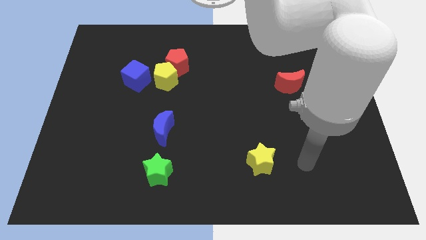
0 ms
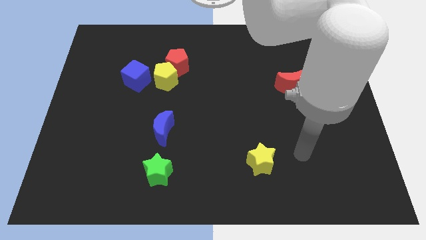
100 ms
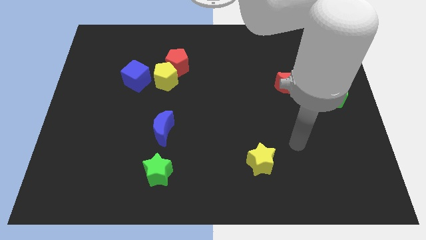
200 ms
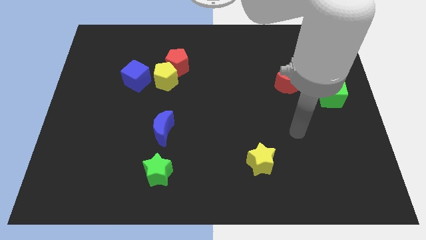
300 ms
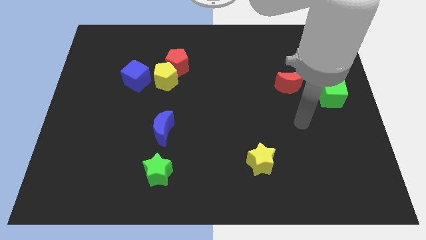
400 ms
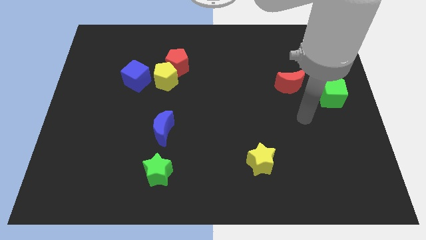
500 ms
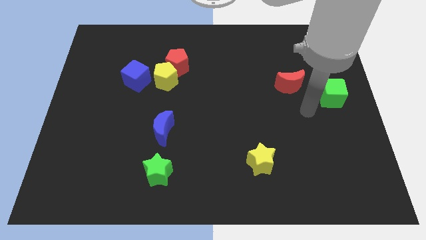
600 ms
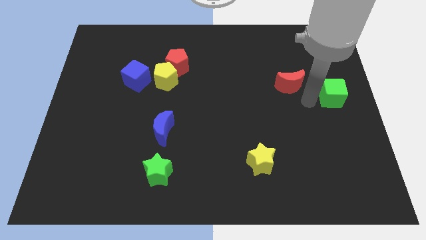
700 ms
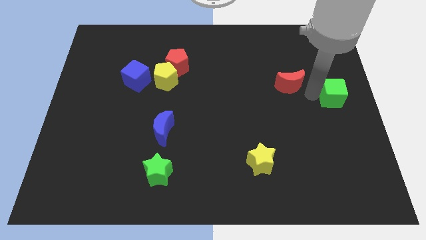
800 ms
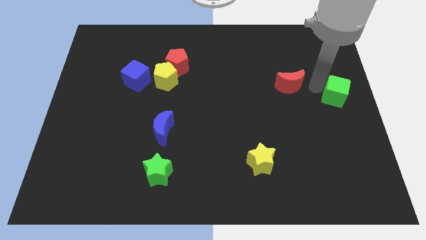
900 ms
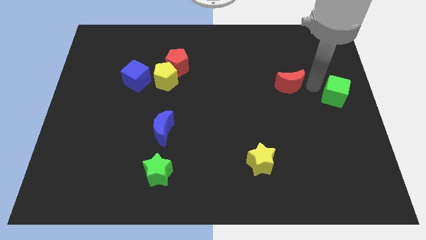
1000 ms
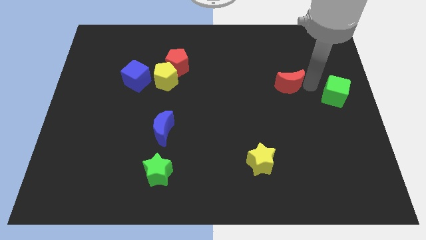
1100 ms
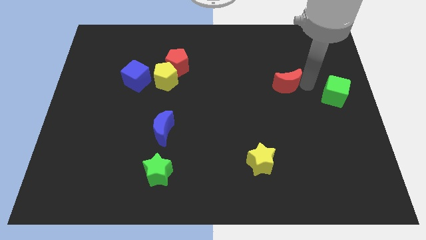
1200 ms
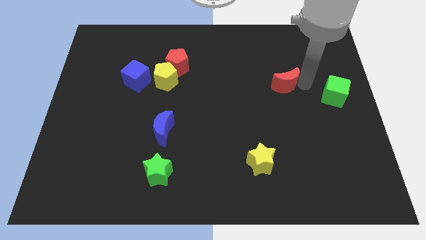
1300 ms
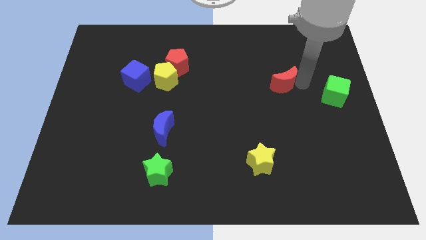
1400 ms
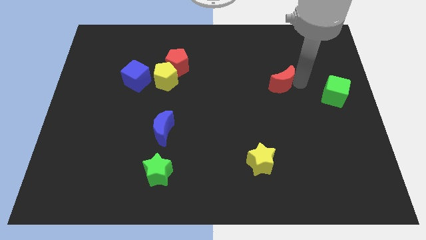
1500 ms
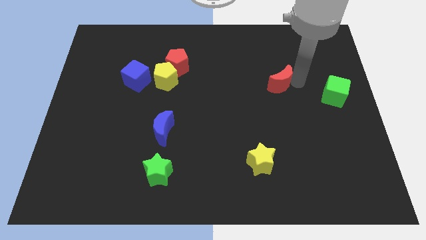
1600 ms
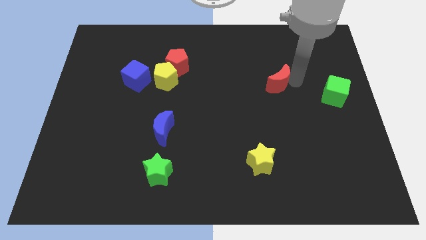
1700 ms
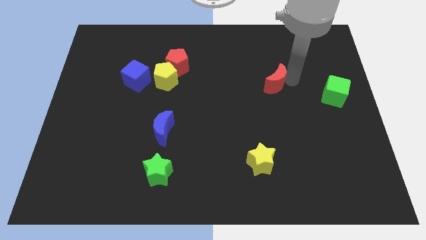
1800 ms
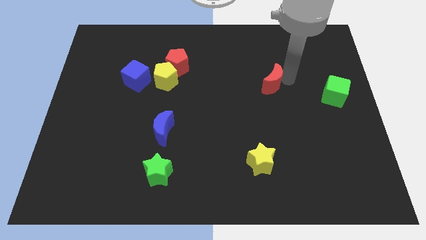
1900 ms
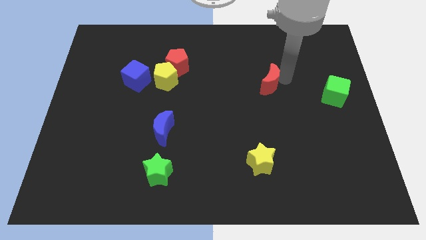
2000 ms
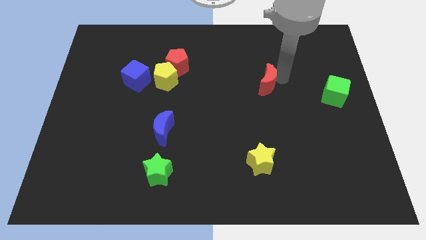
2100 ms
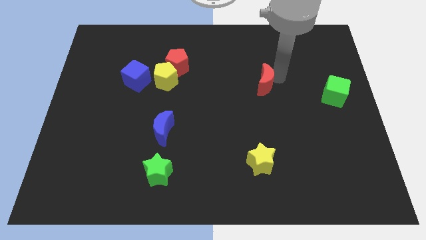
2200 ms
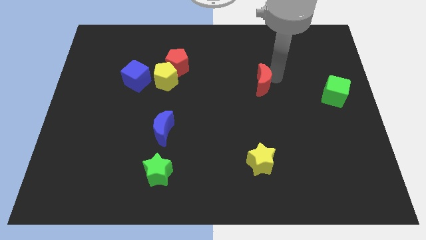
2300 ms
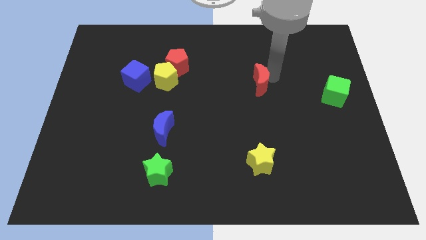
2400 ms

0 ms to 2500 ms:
slightly slide the red moon left

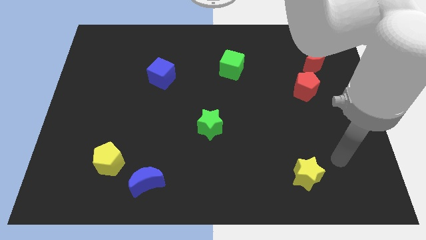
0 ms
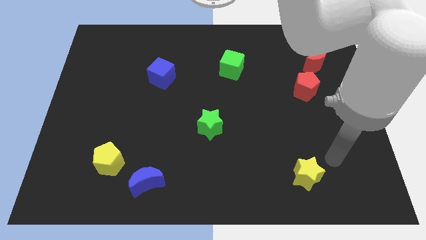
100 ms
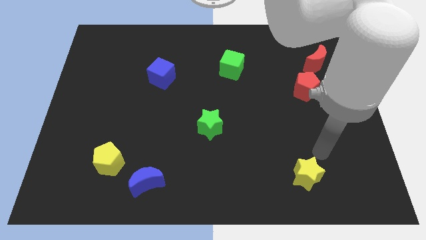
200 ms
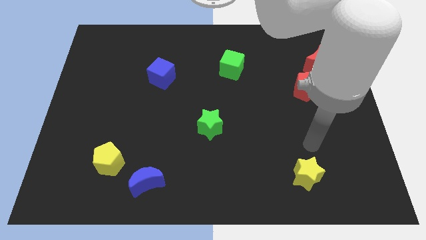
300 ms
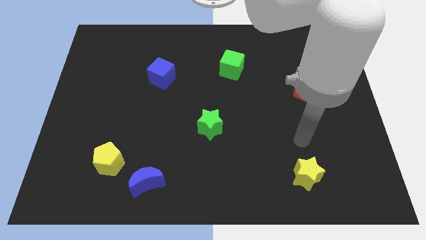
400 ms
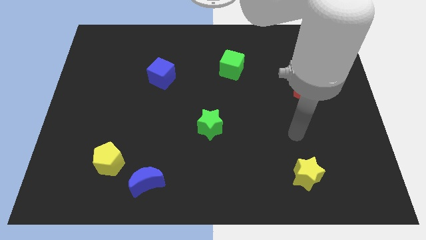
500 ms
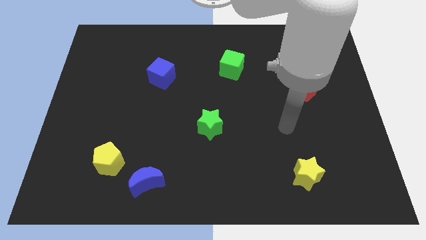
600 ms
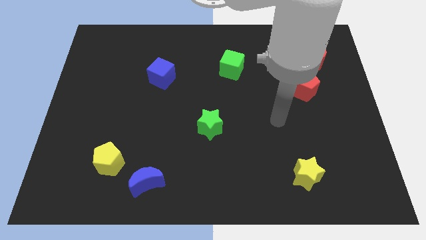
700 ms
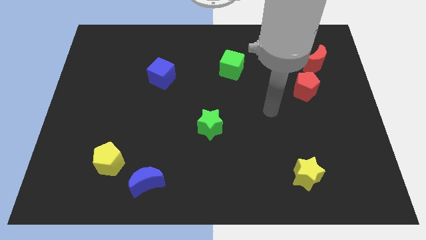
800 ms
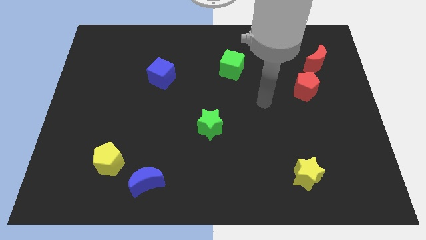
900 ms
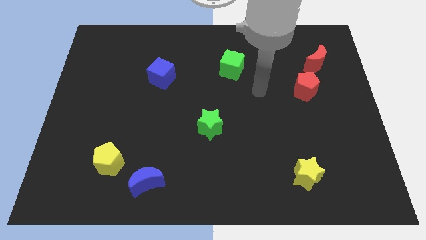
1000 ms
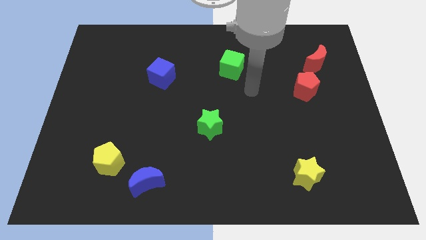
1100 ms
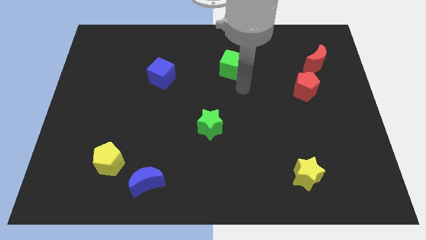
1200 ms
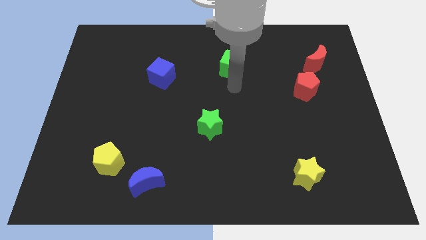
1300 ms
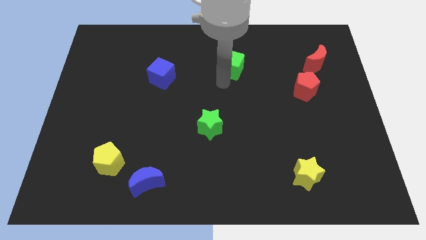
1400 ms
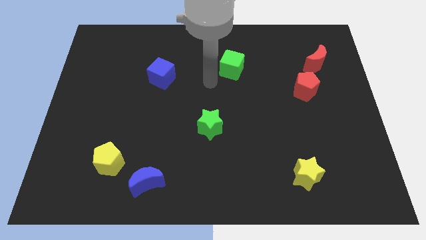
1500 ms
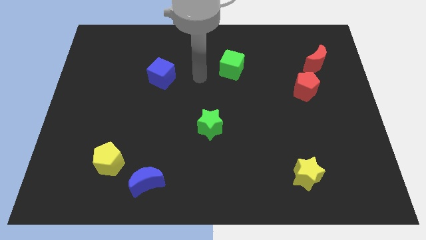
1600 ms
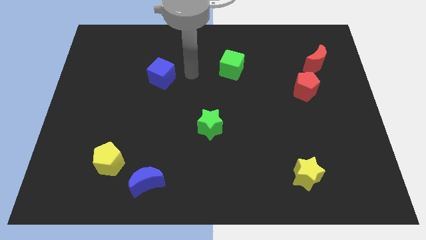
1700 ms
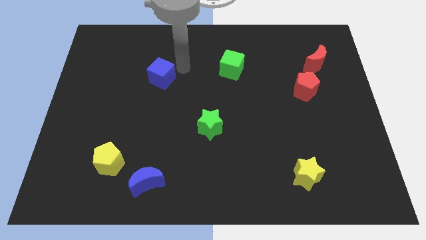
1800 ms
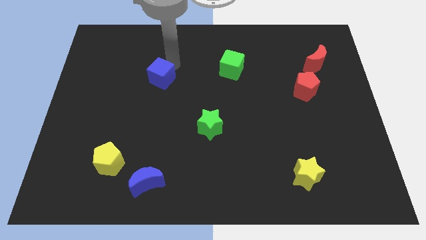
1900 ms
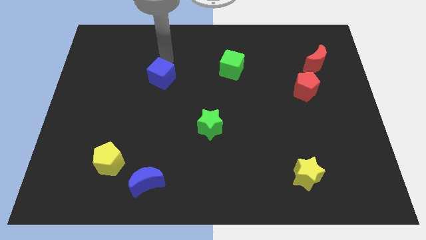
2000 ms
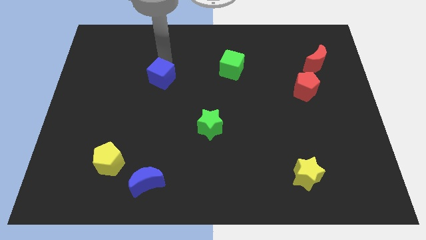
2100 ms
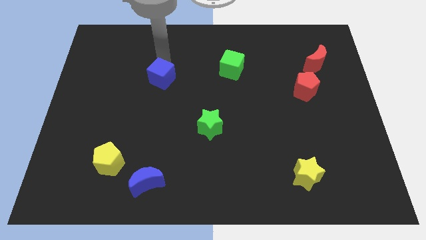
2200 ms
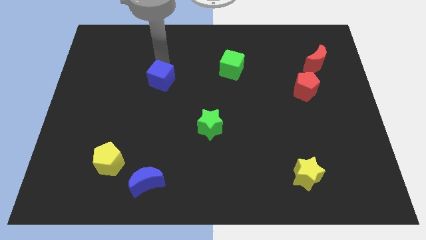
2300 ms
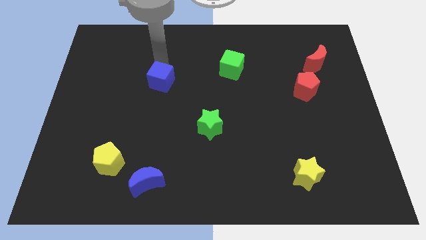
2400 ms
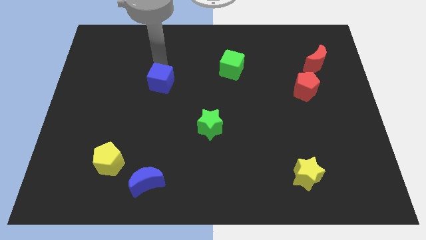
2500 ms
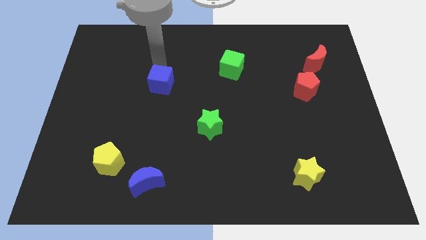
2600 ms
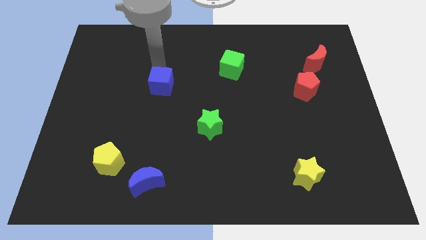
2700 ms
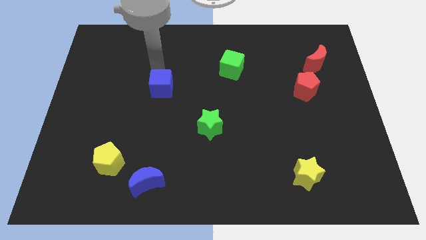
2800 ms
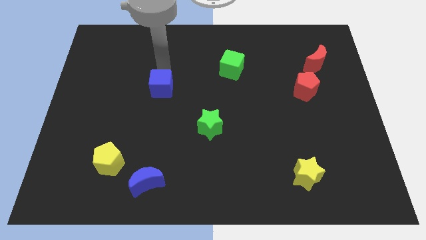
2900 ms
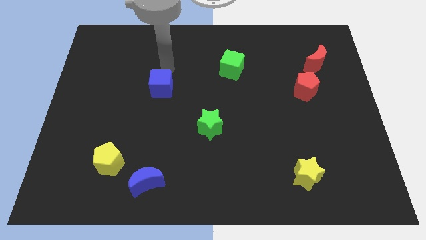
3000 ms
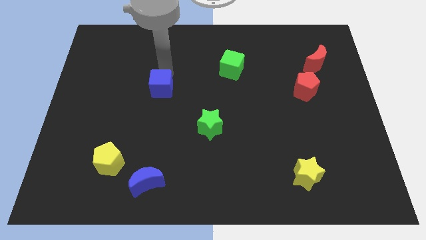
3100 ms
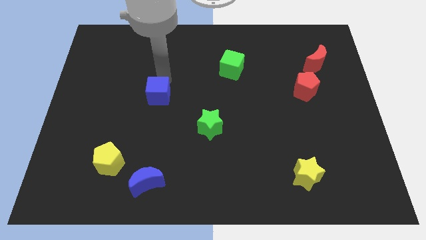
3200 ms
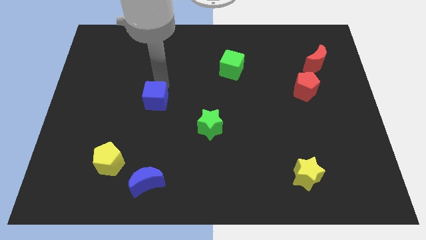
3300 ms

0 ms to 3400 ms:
slightly slide the blue cube downwards

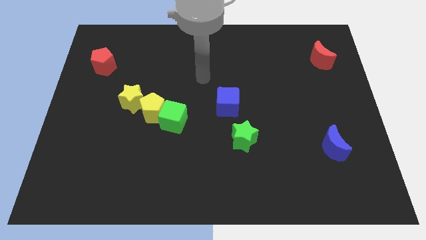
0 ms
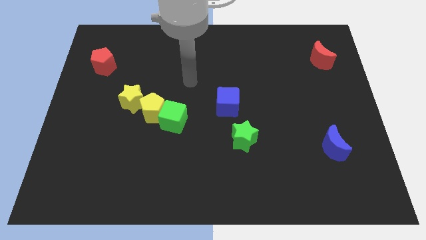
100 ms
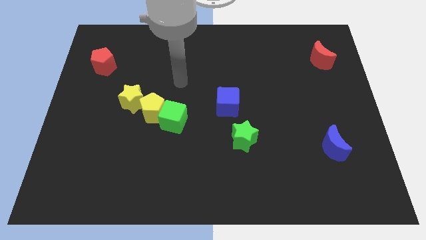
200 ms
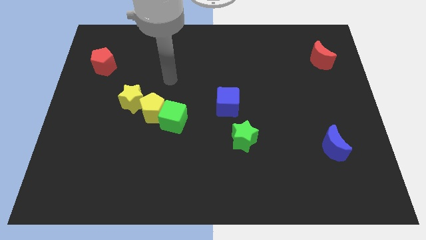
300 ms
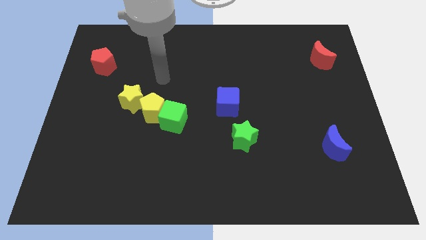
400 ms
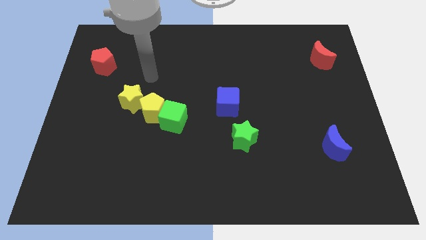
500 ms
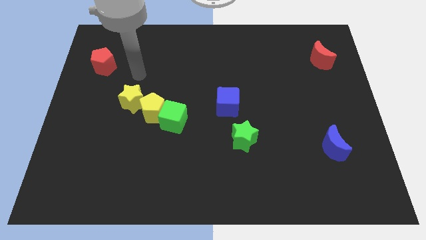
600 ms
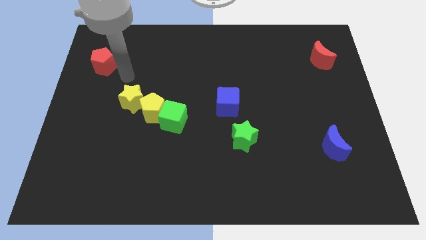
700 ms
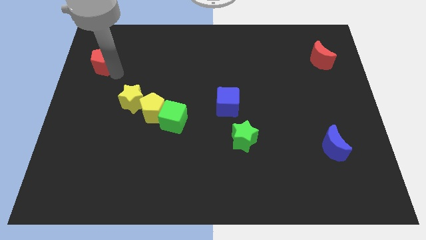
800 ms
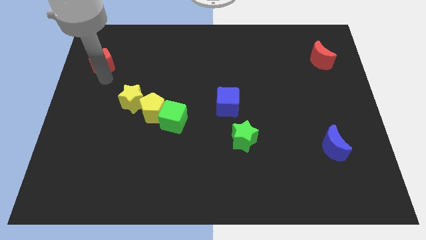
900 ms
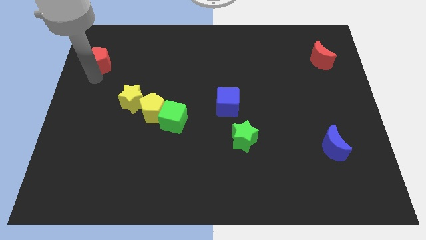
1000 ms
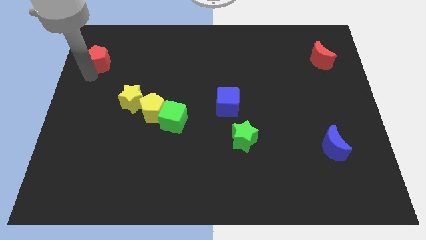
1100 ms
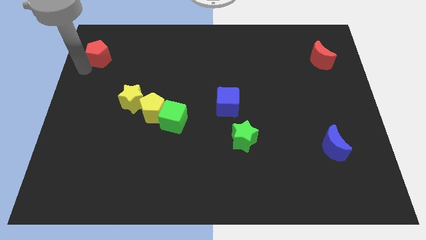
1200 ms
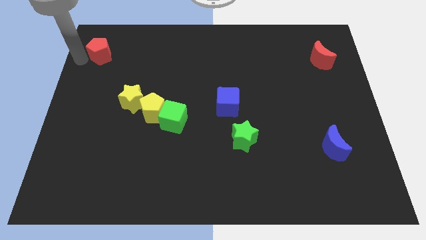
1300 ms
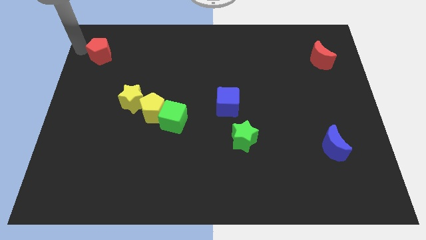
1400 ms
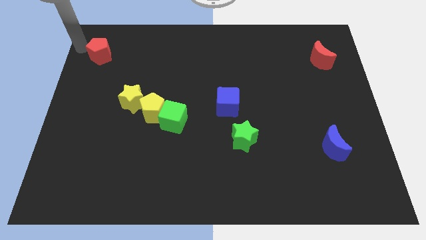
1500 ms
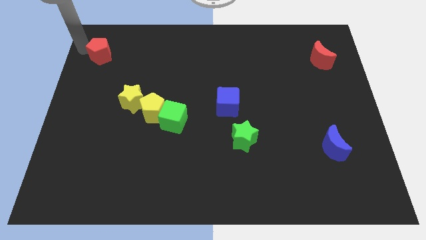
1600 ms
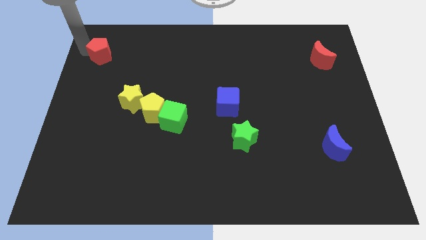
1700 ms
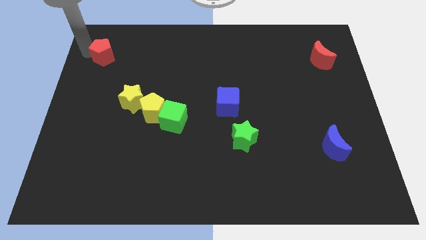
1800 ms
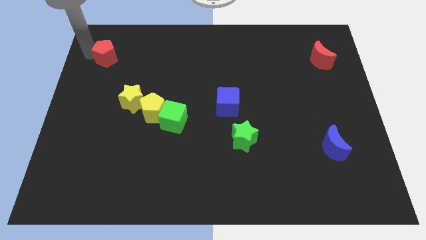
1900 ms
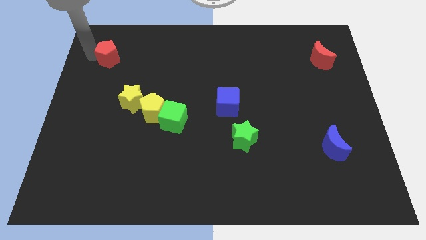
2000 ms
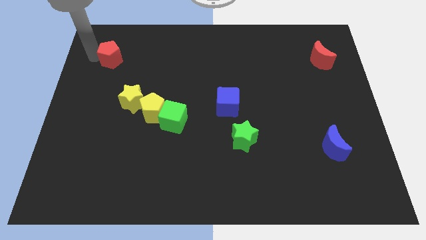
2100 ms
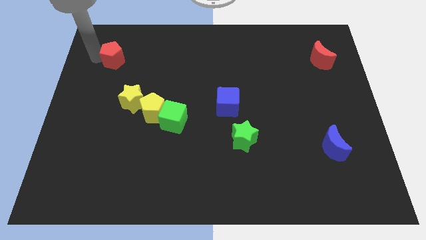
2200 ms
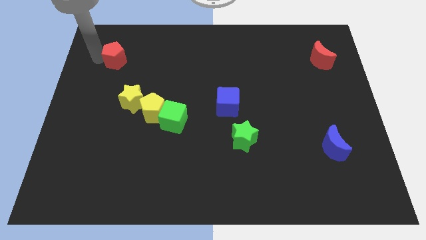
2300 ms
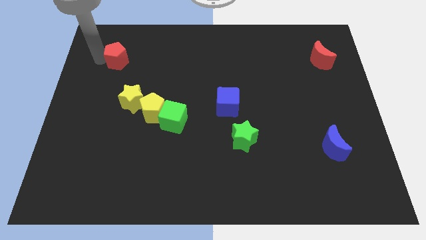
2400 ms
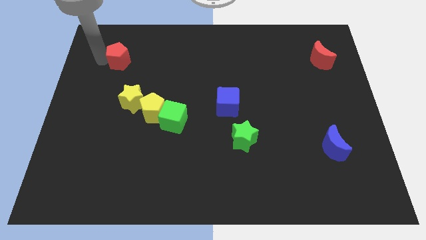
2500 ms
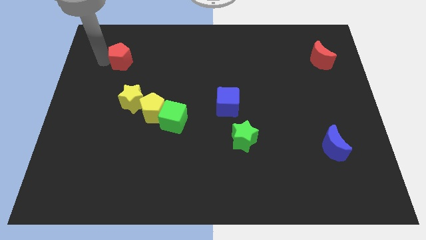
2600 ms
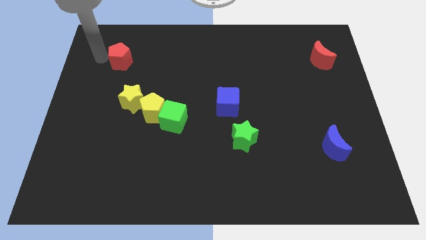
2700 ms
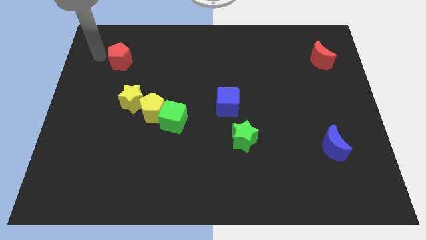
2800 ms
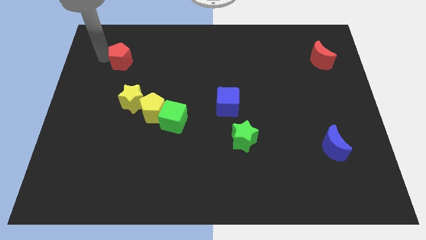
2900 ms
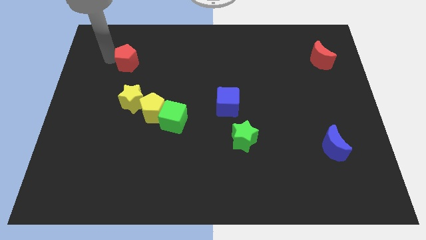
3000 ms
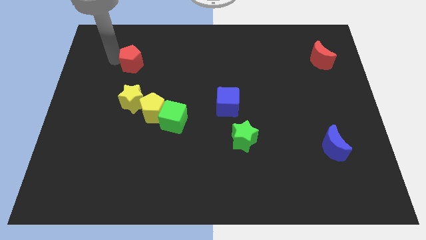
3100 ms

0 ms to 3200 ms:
push the red pentagon right somewhat
